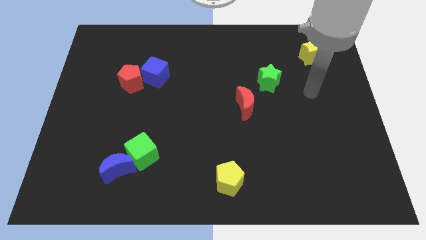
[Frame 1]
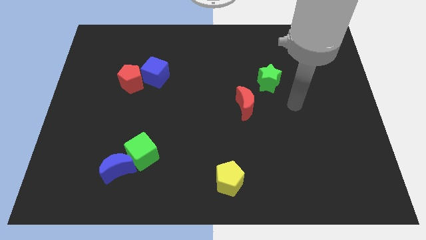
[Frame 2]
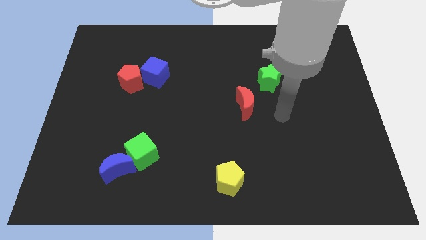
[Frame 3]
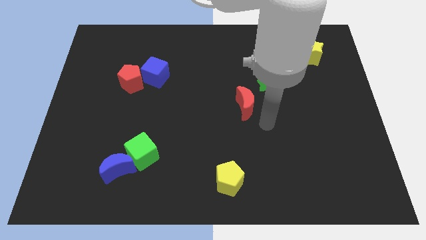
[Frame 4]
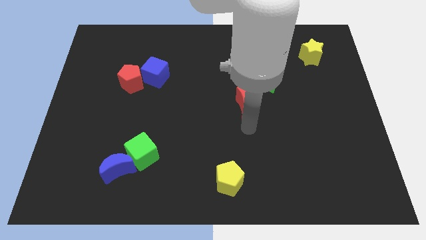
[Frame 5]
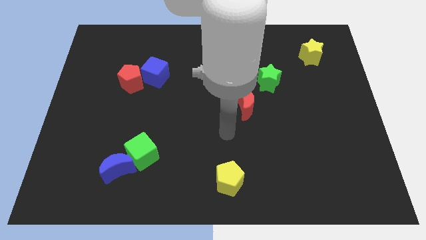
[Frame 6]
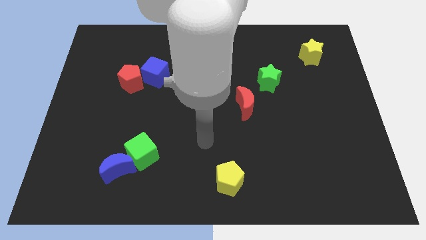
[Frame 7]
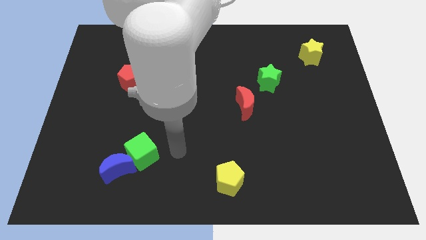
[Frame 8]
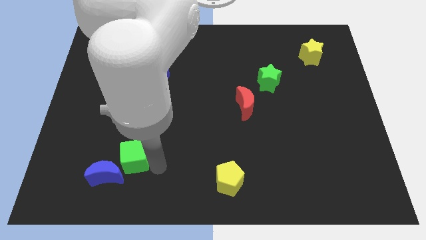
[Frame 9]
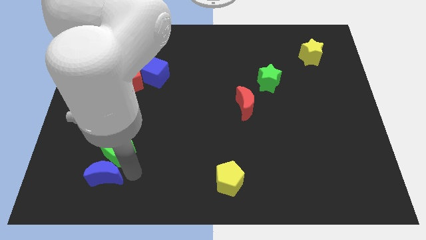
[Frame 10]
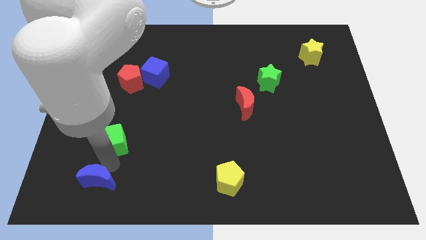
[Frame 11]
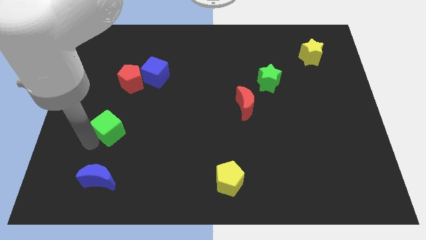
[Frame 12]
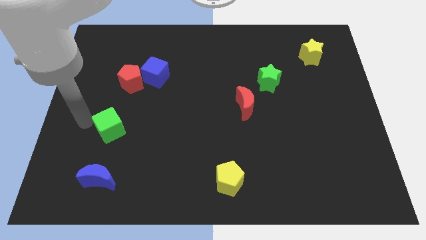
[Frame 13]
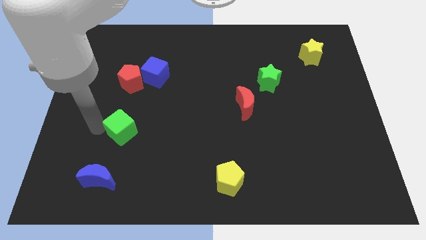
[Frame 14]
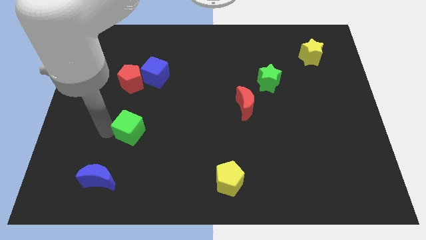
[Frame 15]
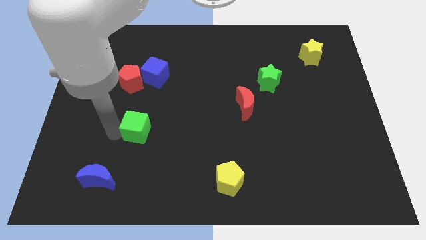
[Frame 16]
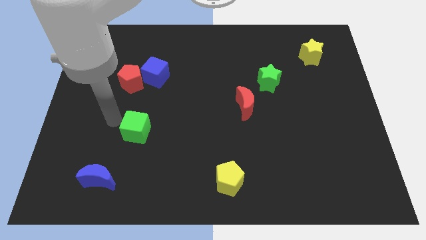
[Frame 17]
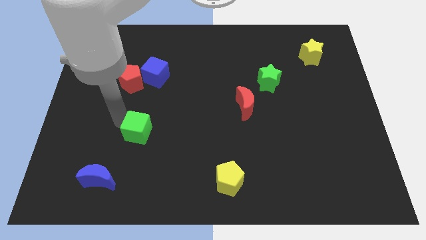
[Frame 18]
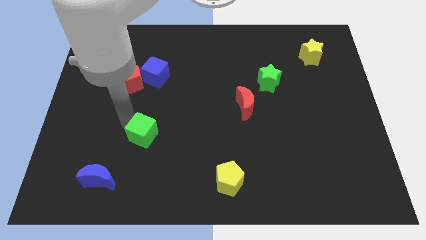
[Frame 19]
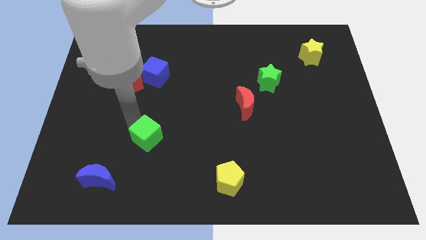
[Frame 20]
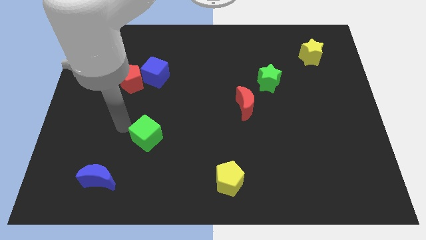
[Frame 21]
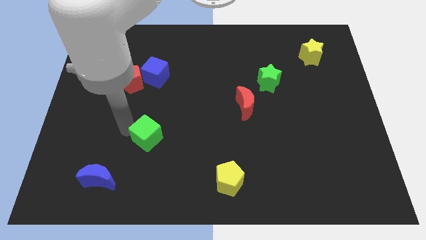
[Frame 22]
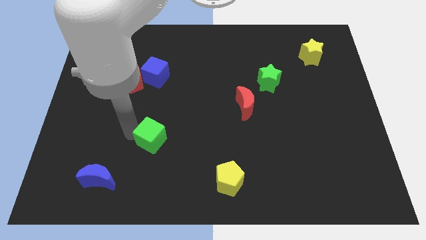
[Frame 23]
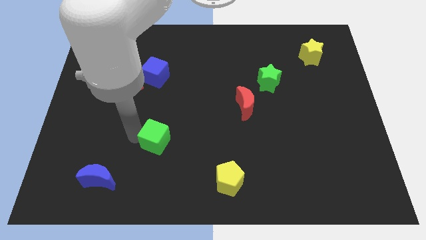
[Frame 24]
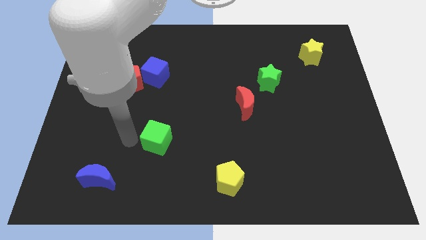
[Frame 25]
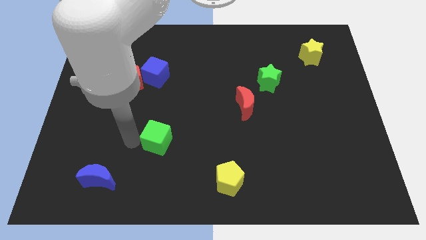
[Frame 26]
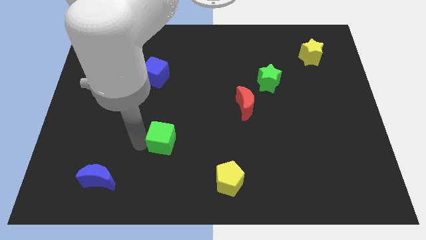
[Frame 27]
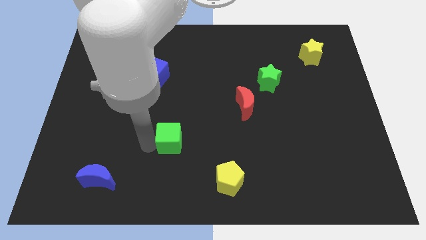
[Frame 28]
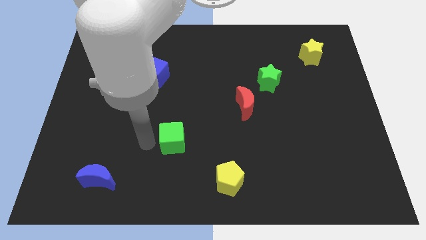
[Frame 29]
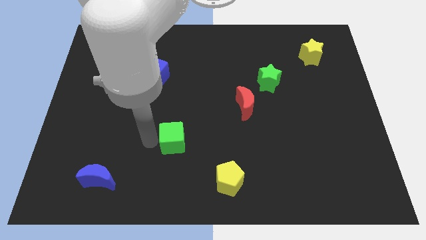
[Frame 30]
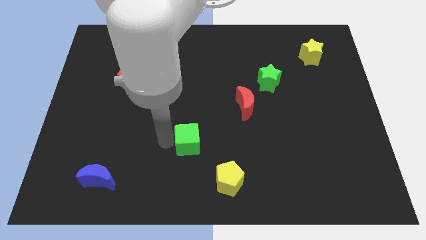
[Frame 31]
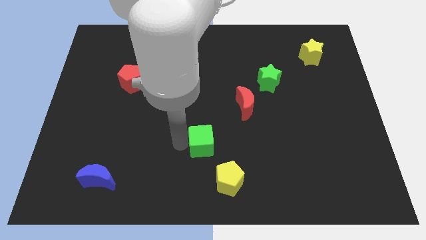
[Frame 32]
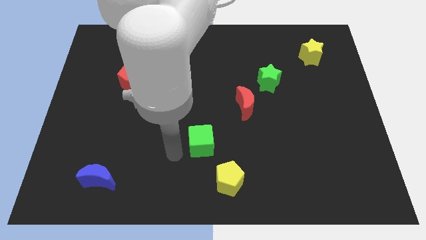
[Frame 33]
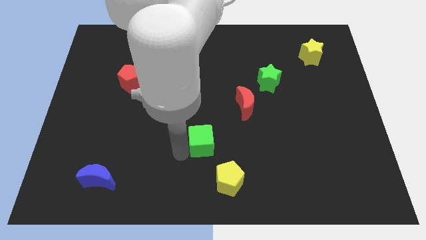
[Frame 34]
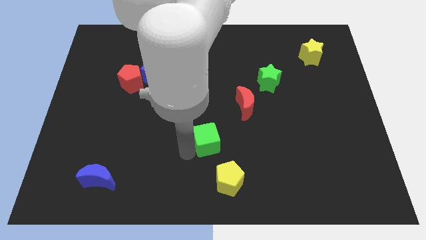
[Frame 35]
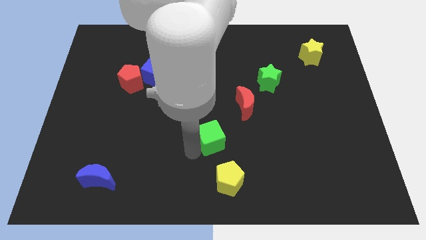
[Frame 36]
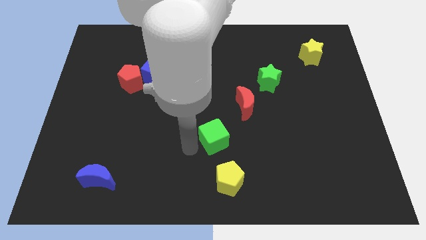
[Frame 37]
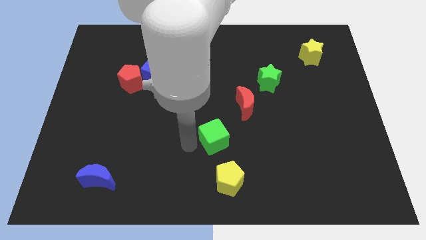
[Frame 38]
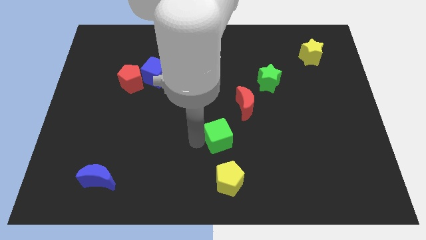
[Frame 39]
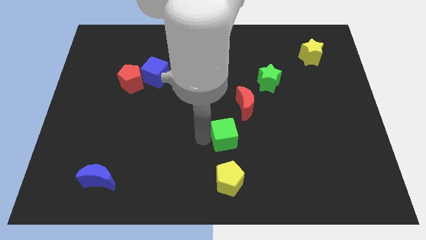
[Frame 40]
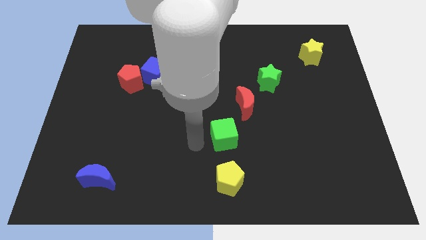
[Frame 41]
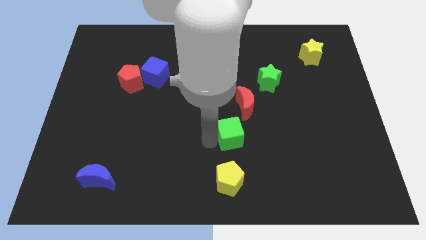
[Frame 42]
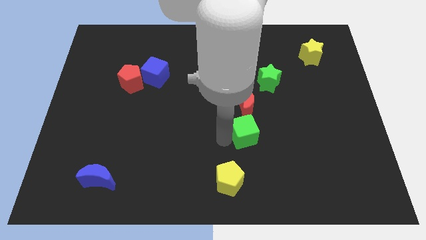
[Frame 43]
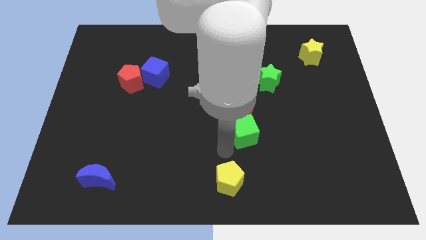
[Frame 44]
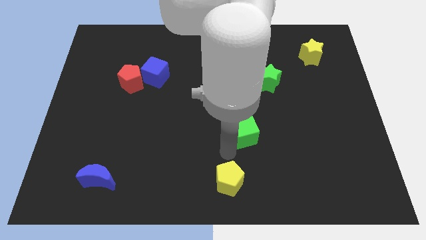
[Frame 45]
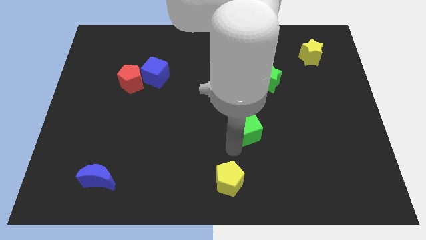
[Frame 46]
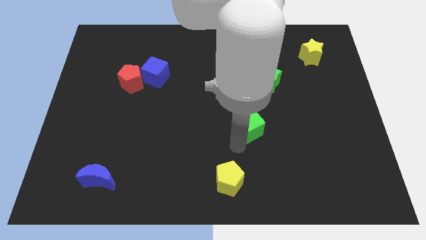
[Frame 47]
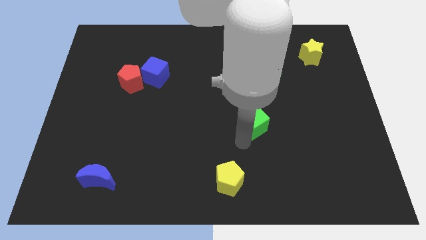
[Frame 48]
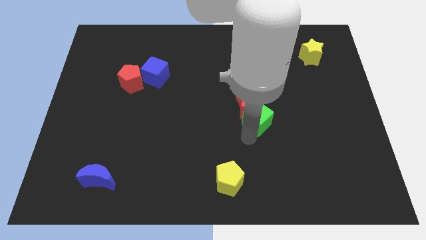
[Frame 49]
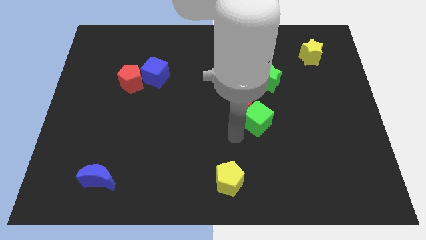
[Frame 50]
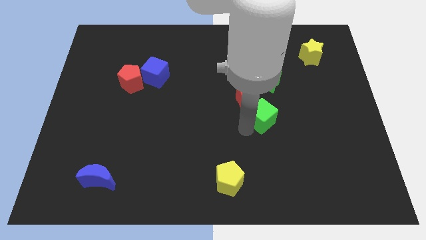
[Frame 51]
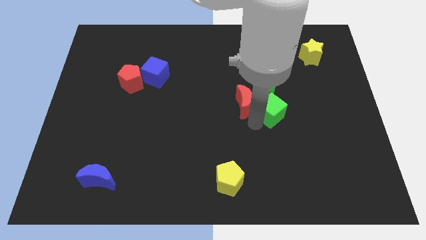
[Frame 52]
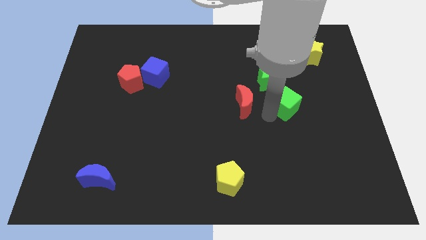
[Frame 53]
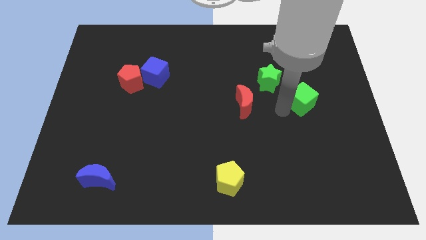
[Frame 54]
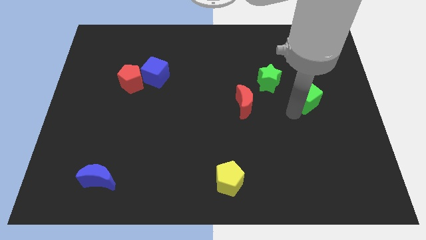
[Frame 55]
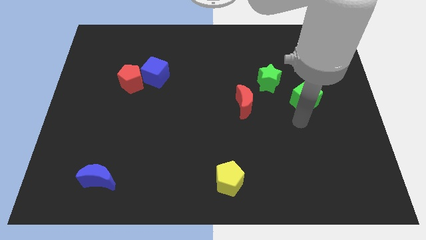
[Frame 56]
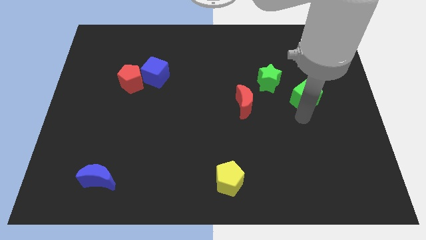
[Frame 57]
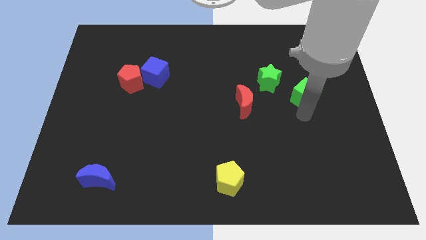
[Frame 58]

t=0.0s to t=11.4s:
push the green cube to the right of the green star

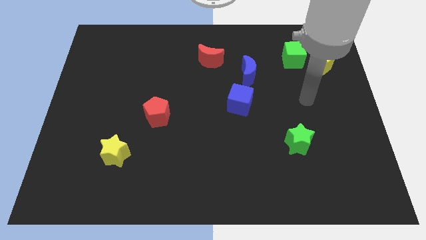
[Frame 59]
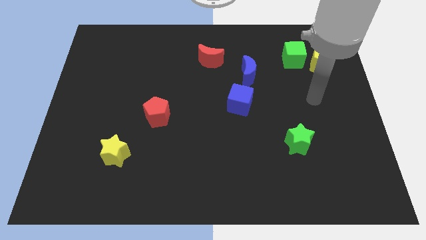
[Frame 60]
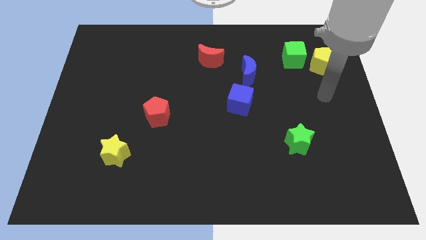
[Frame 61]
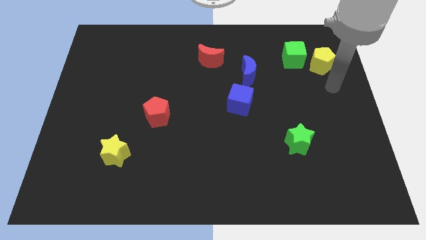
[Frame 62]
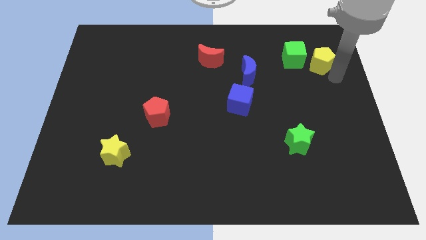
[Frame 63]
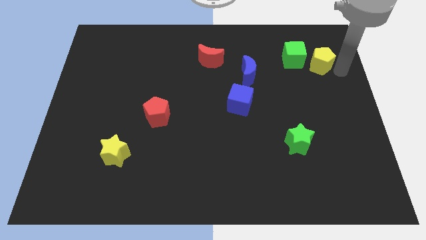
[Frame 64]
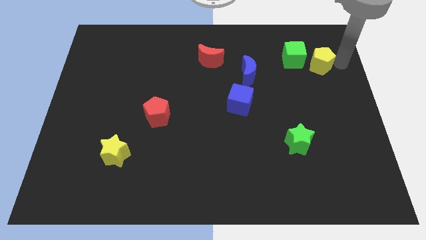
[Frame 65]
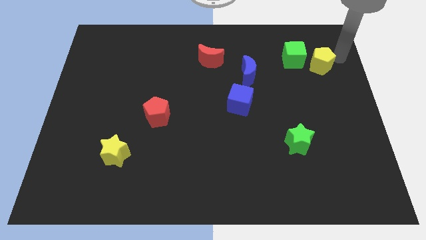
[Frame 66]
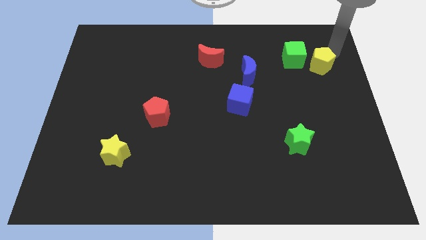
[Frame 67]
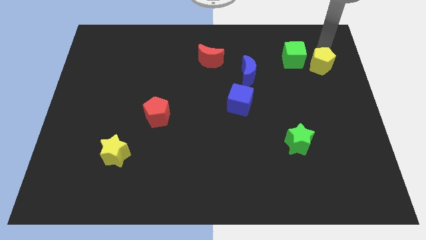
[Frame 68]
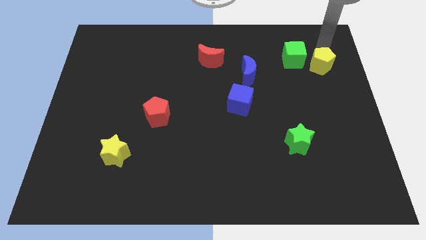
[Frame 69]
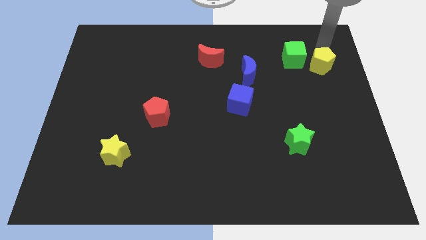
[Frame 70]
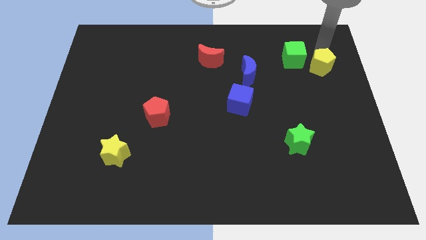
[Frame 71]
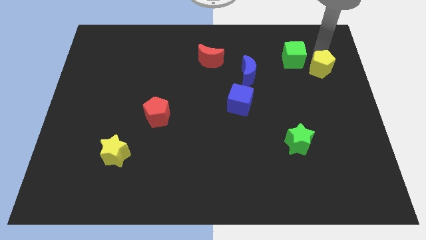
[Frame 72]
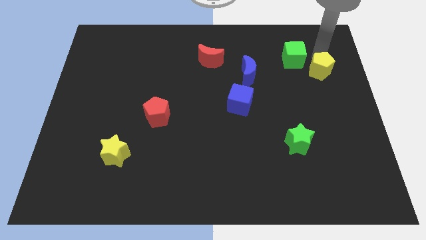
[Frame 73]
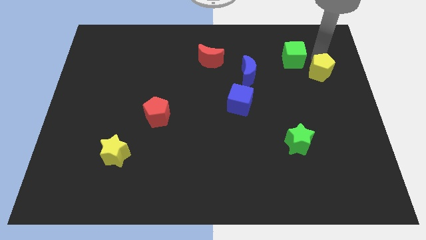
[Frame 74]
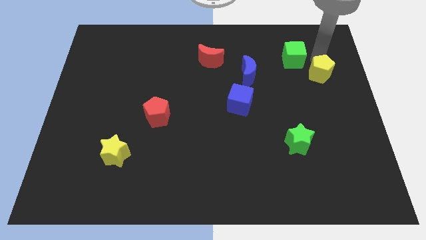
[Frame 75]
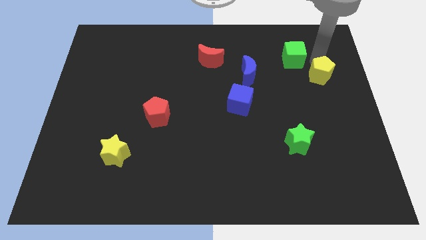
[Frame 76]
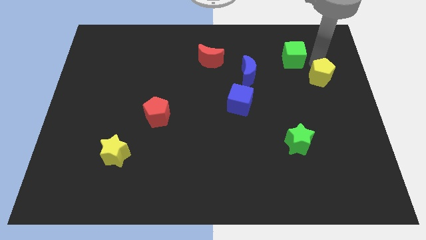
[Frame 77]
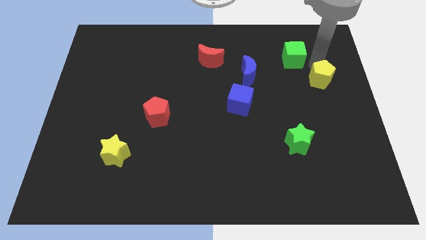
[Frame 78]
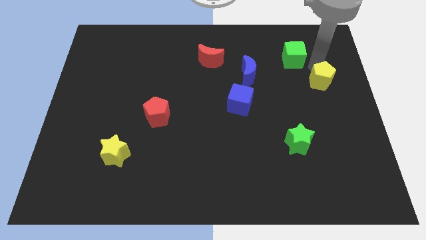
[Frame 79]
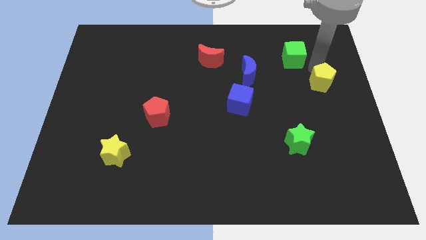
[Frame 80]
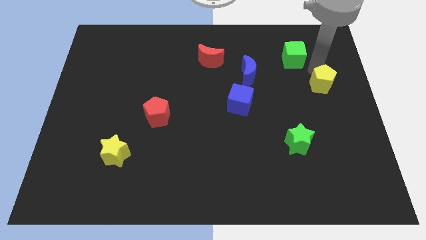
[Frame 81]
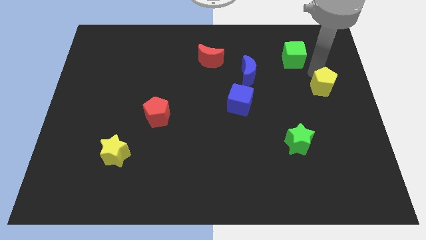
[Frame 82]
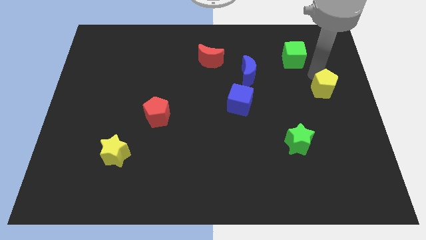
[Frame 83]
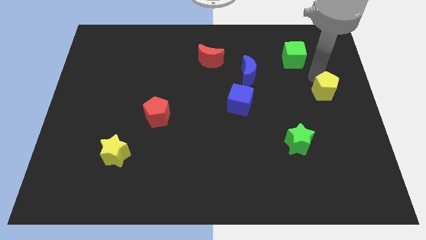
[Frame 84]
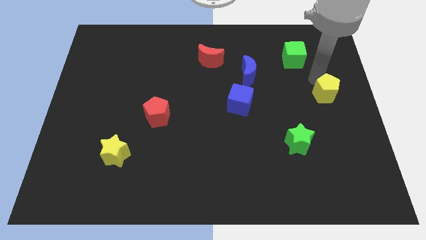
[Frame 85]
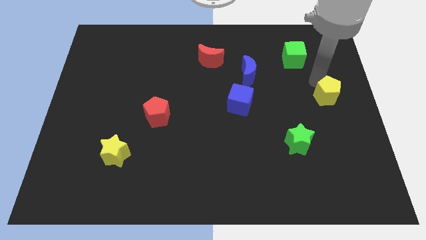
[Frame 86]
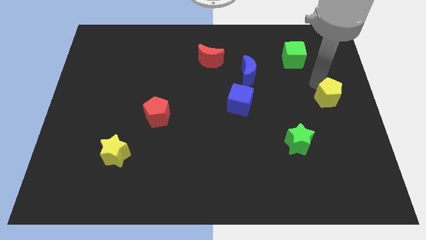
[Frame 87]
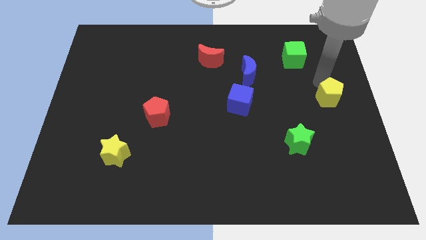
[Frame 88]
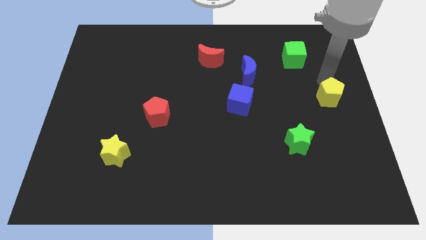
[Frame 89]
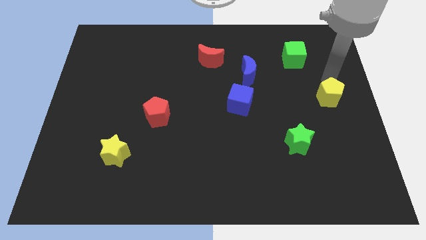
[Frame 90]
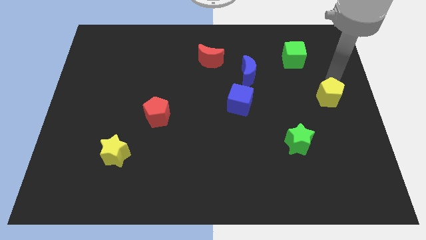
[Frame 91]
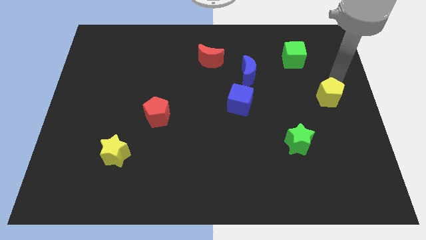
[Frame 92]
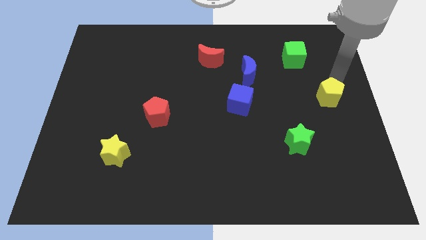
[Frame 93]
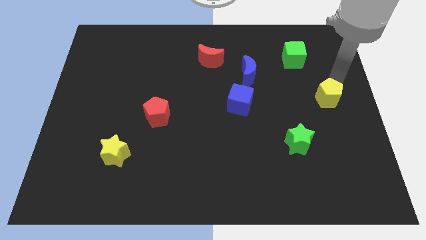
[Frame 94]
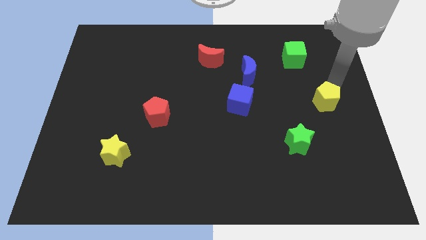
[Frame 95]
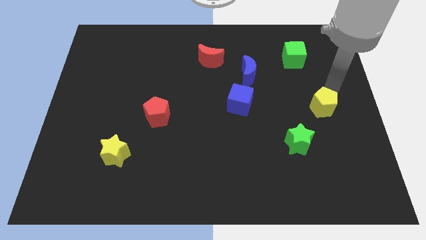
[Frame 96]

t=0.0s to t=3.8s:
put the yellow pentagon to the top right side of the green star
